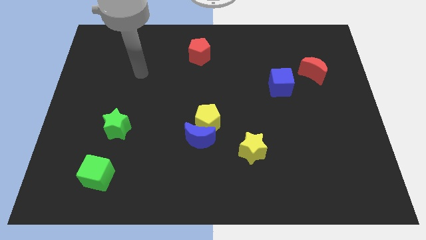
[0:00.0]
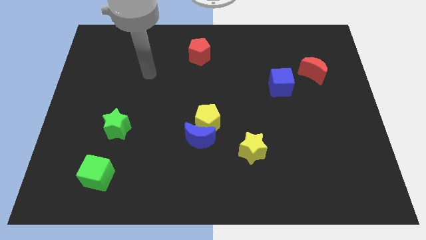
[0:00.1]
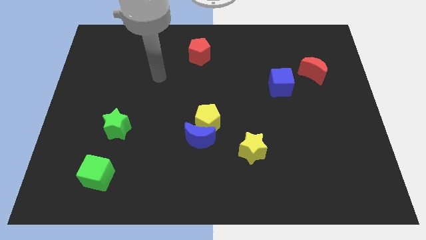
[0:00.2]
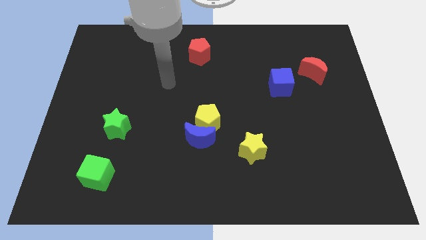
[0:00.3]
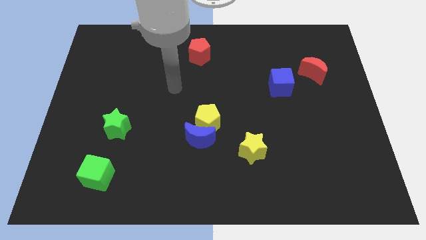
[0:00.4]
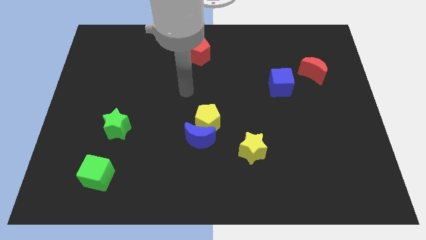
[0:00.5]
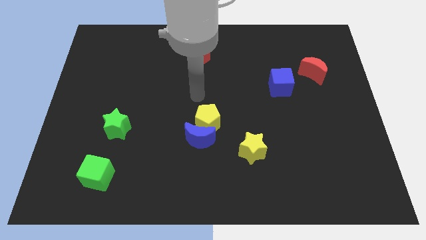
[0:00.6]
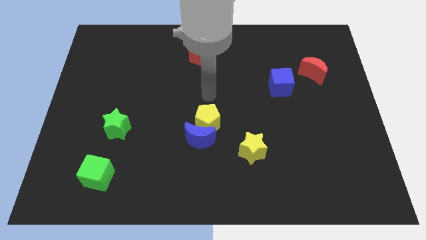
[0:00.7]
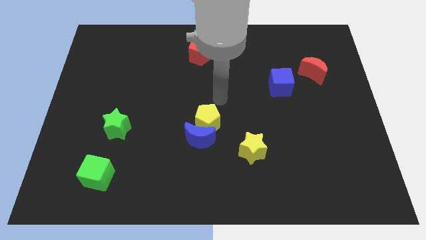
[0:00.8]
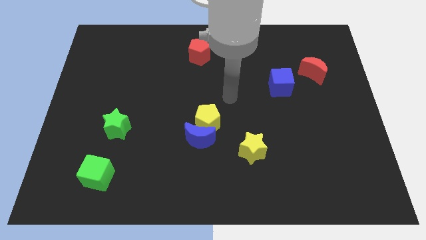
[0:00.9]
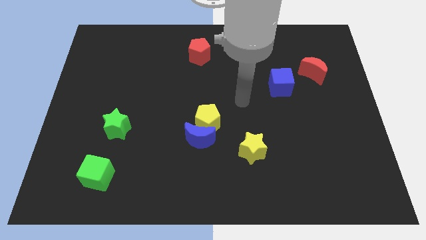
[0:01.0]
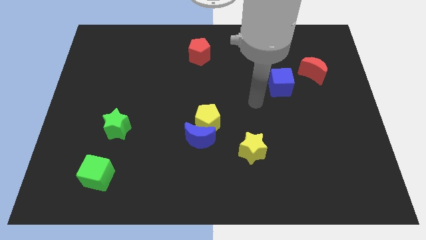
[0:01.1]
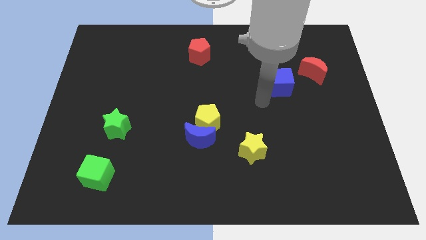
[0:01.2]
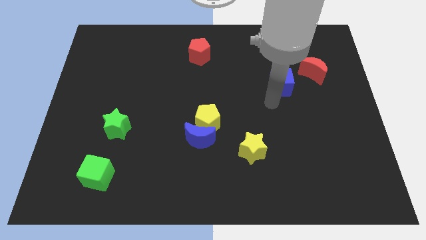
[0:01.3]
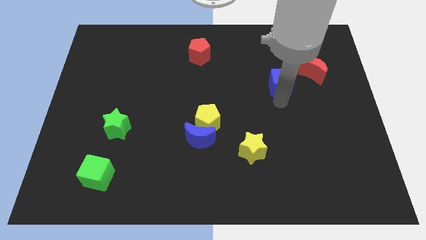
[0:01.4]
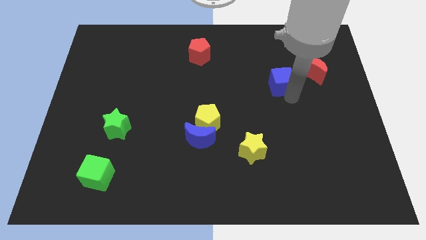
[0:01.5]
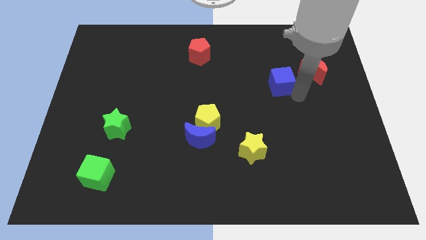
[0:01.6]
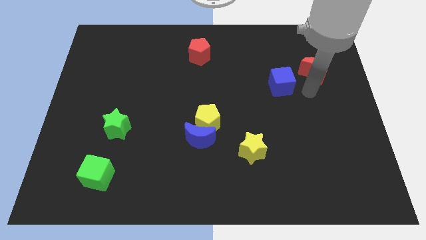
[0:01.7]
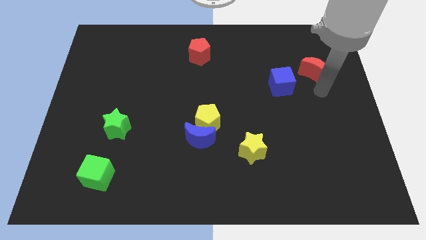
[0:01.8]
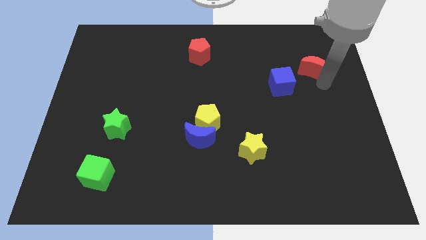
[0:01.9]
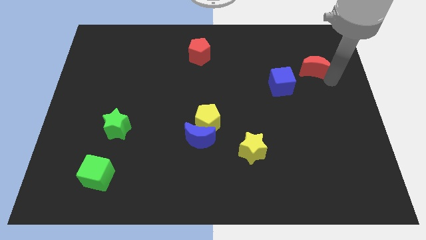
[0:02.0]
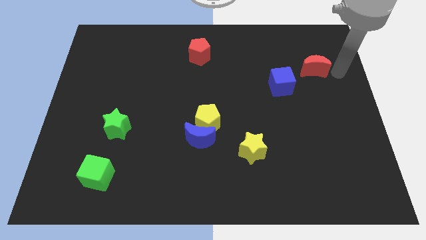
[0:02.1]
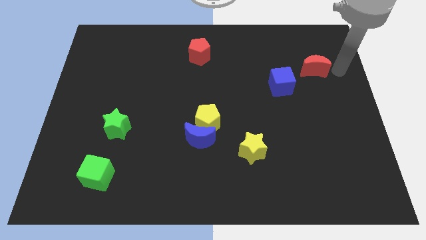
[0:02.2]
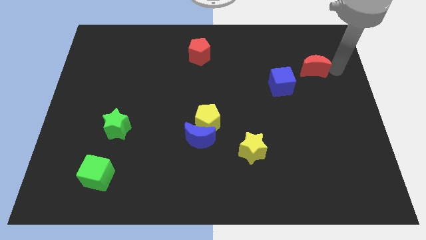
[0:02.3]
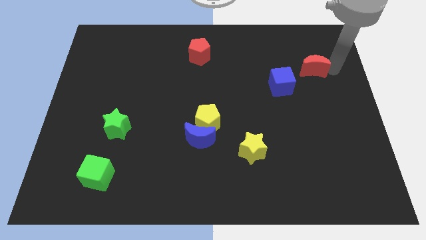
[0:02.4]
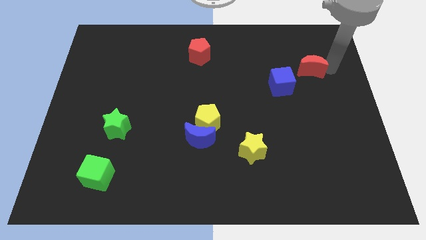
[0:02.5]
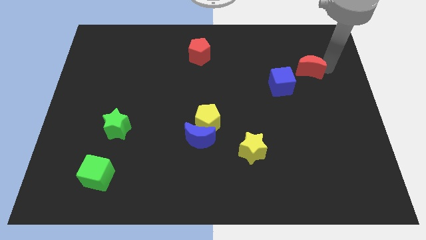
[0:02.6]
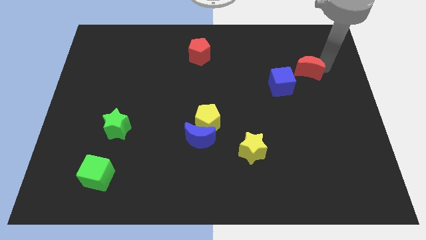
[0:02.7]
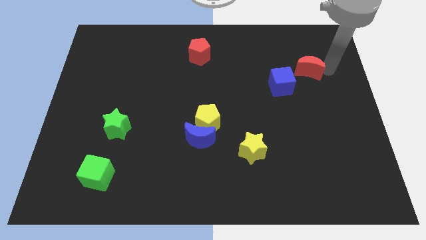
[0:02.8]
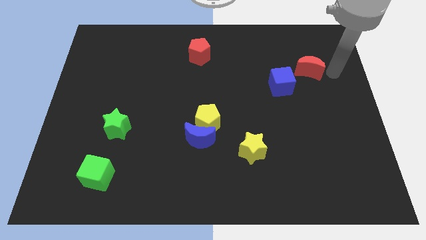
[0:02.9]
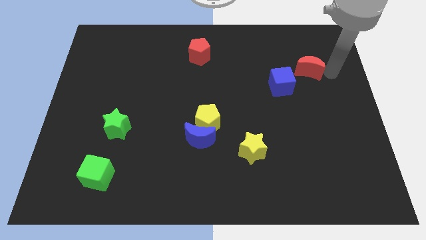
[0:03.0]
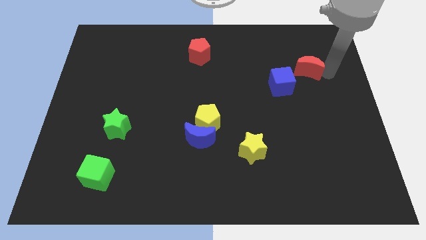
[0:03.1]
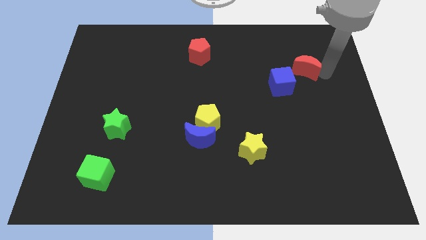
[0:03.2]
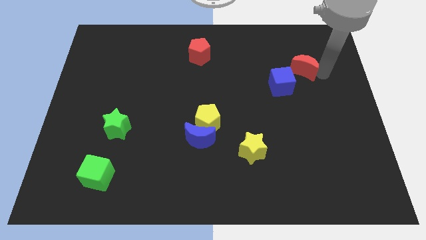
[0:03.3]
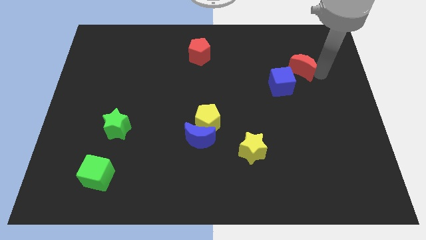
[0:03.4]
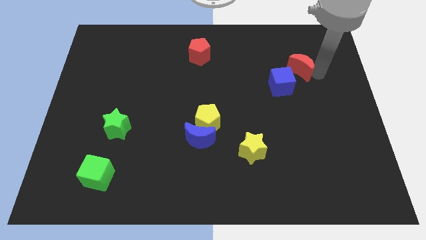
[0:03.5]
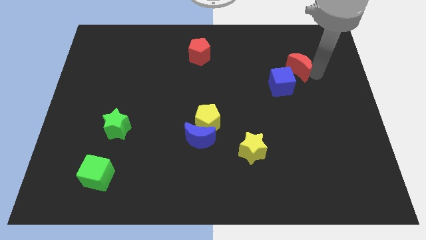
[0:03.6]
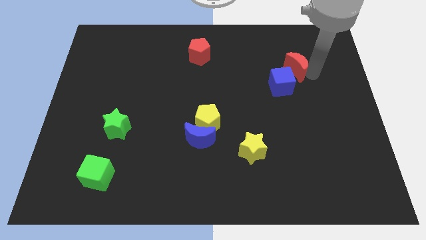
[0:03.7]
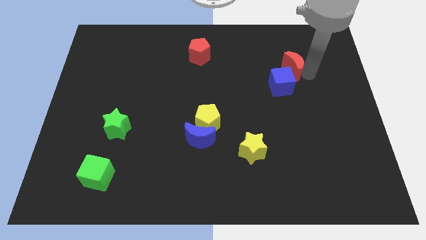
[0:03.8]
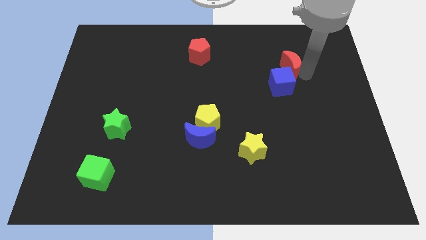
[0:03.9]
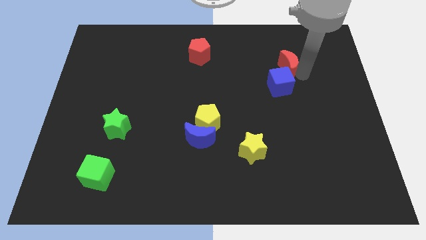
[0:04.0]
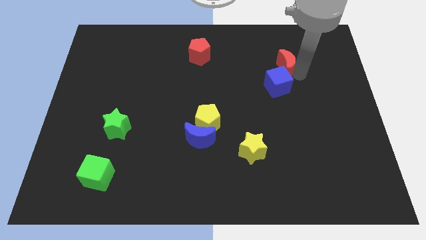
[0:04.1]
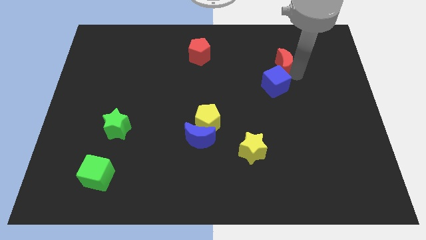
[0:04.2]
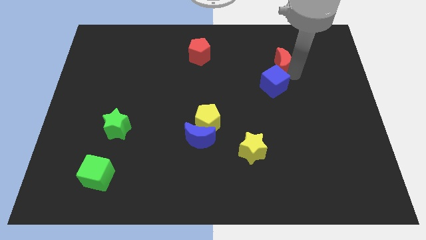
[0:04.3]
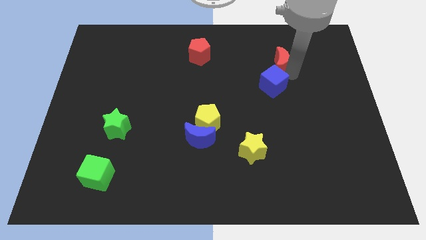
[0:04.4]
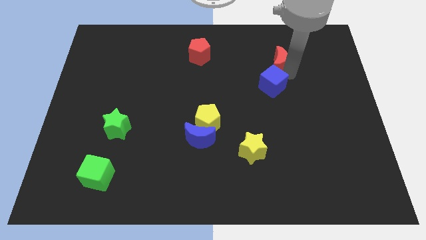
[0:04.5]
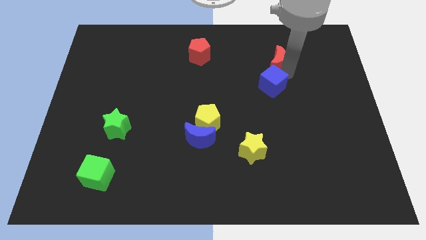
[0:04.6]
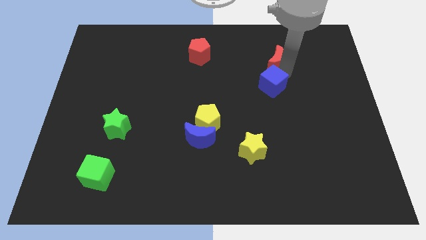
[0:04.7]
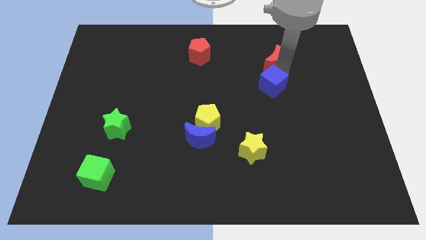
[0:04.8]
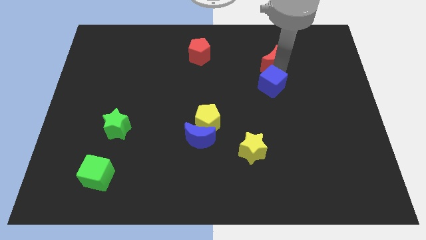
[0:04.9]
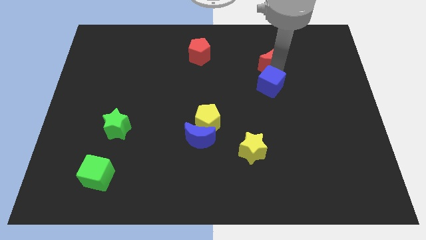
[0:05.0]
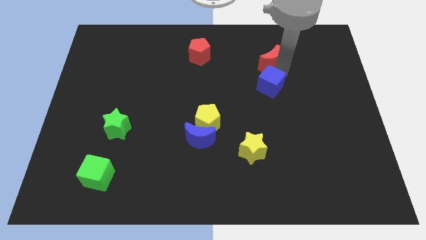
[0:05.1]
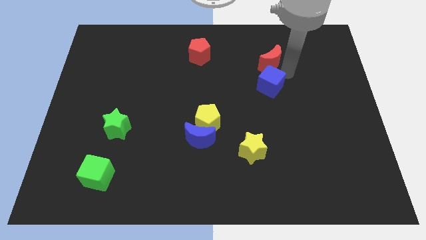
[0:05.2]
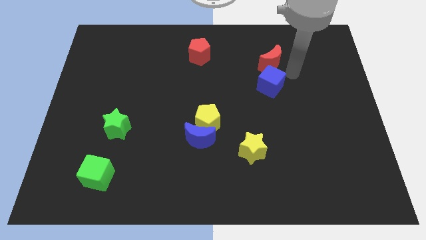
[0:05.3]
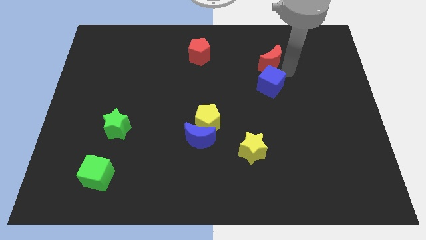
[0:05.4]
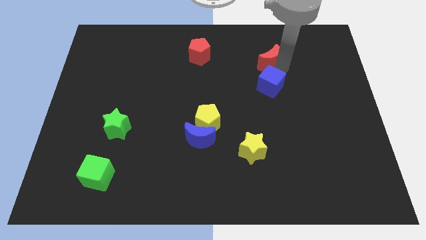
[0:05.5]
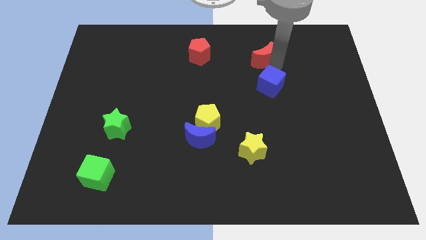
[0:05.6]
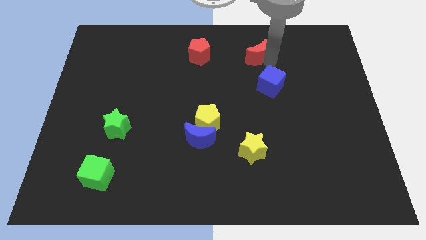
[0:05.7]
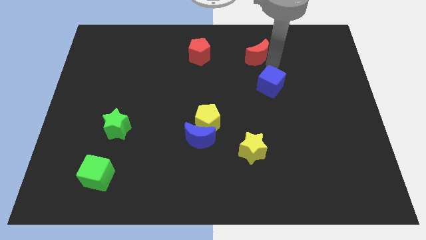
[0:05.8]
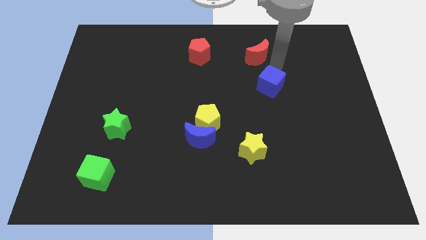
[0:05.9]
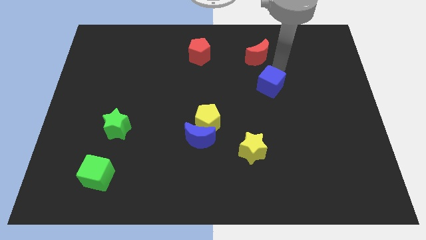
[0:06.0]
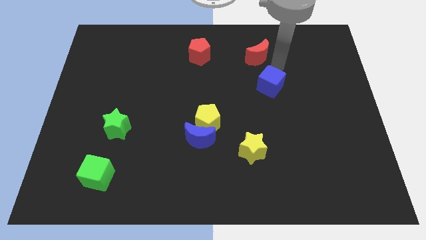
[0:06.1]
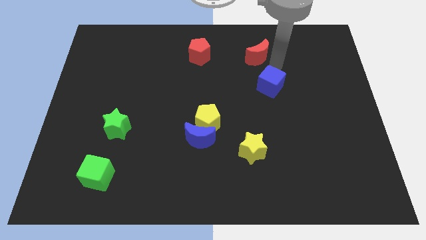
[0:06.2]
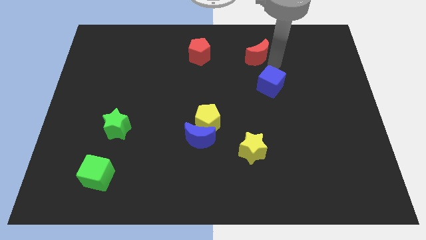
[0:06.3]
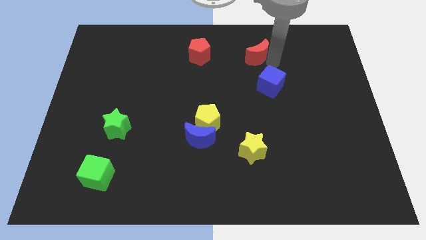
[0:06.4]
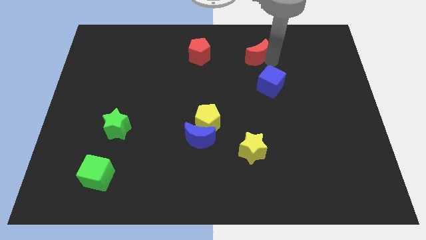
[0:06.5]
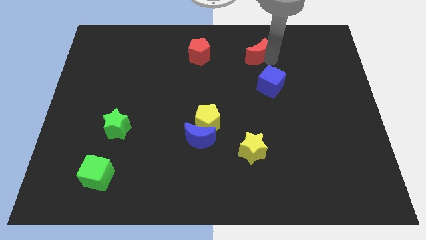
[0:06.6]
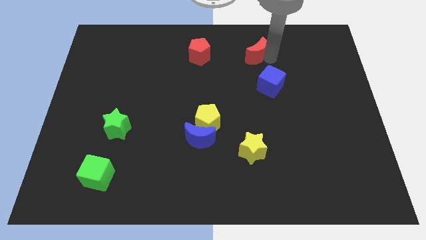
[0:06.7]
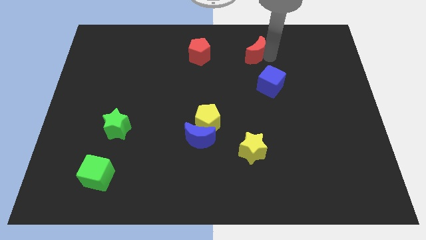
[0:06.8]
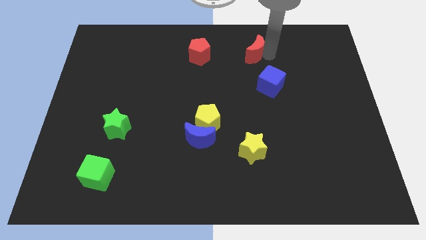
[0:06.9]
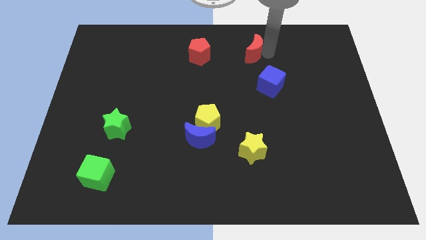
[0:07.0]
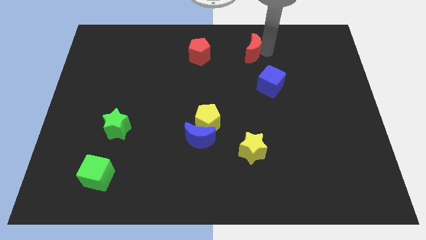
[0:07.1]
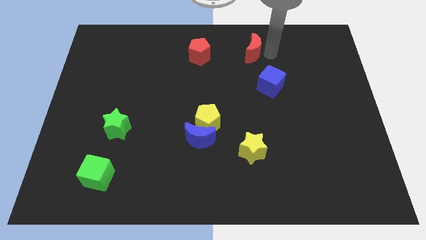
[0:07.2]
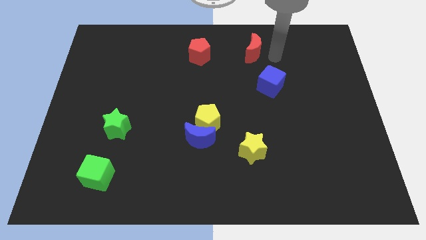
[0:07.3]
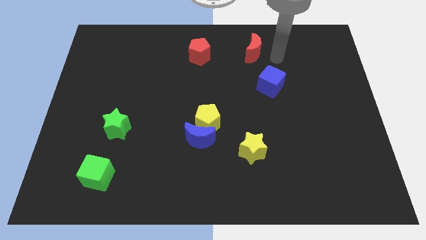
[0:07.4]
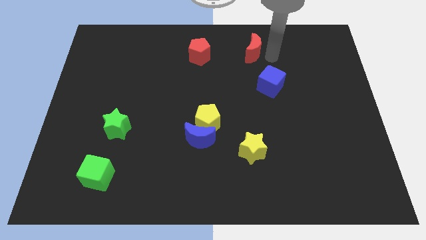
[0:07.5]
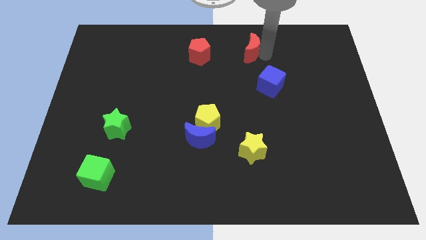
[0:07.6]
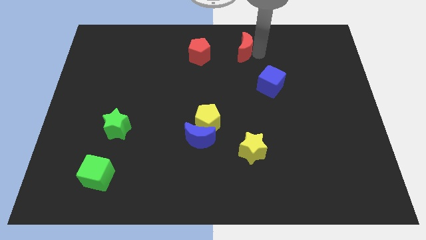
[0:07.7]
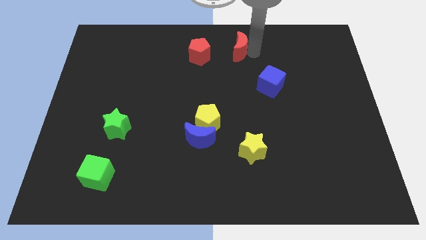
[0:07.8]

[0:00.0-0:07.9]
push the red moon to the top
